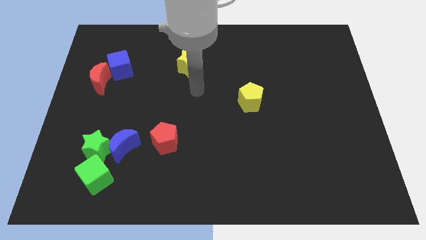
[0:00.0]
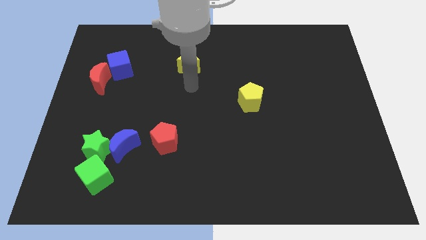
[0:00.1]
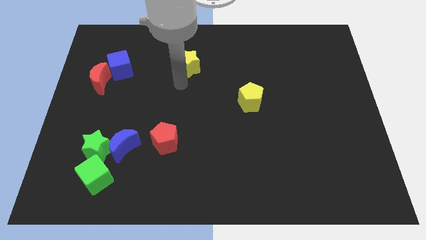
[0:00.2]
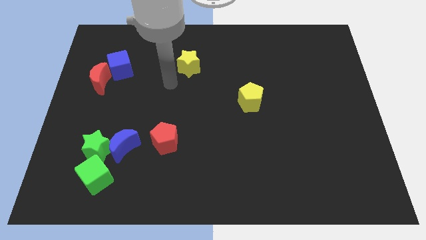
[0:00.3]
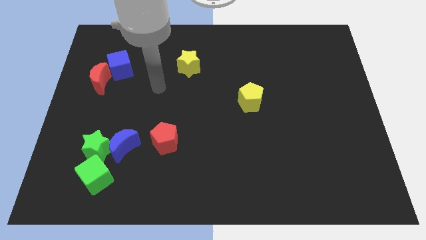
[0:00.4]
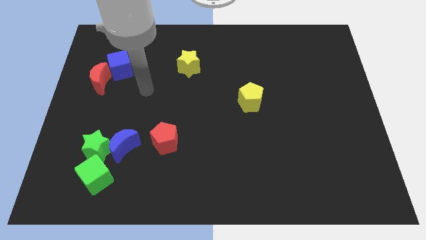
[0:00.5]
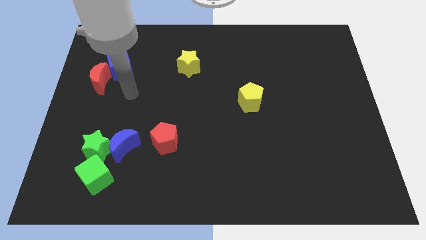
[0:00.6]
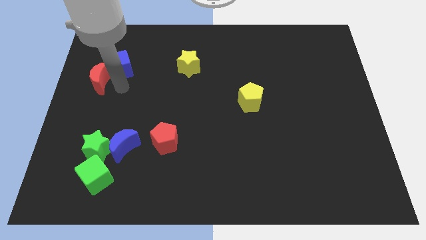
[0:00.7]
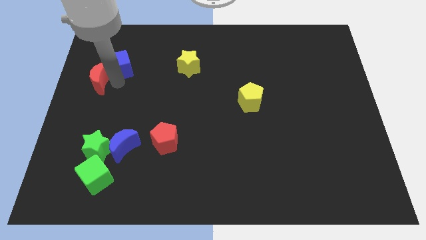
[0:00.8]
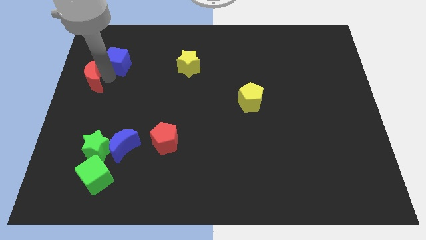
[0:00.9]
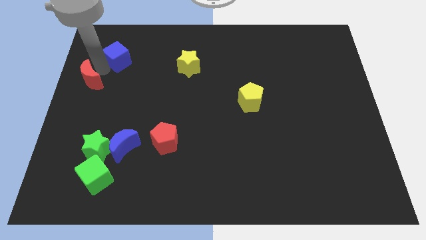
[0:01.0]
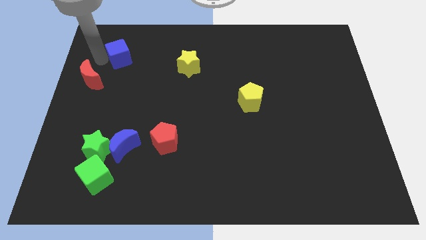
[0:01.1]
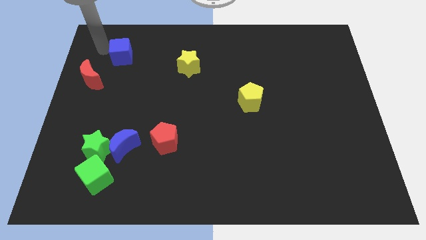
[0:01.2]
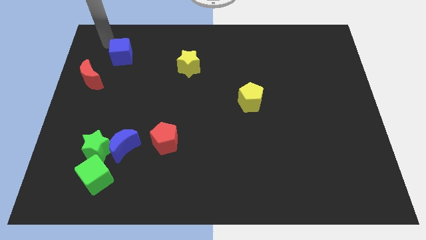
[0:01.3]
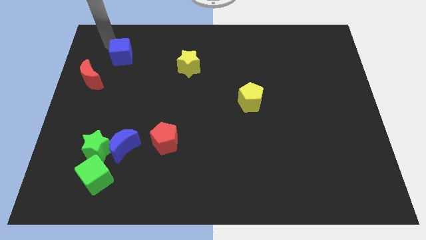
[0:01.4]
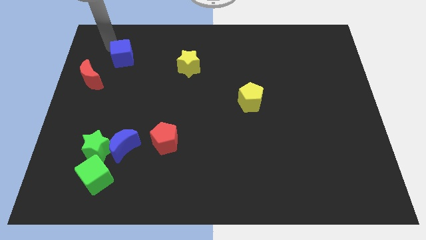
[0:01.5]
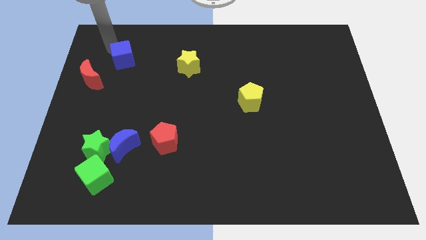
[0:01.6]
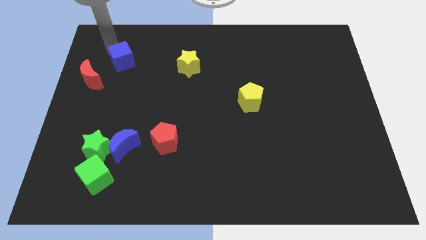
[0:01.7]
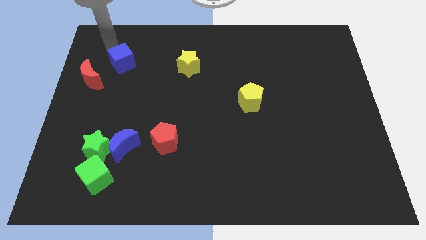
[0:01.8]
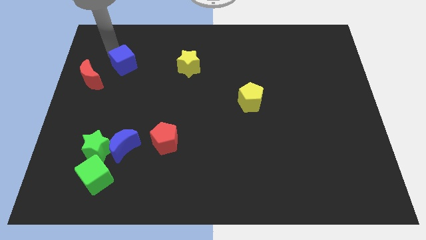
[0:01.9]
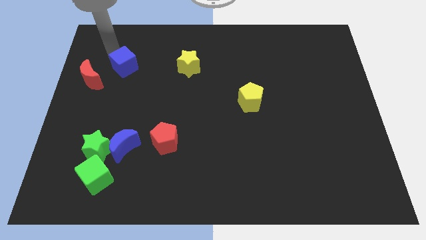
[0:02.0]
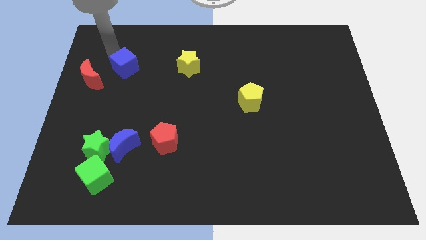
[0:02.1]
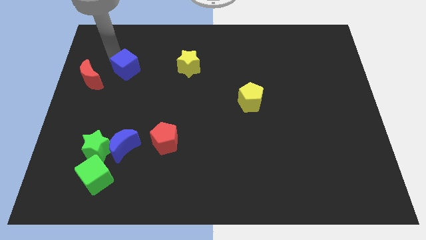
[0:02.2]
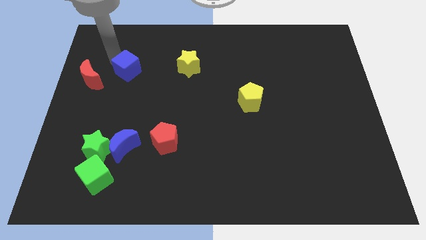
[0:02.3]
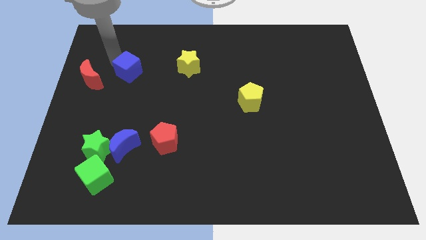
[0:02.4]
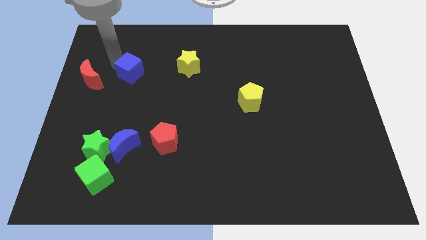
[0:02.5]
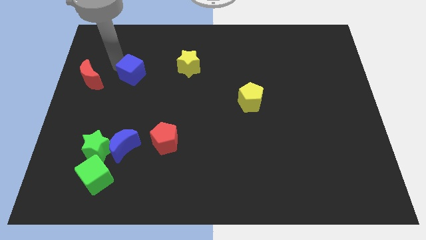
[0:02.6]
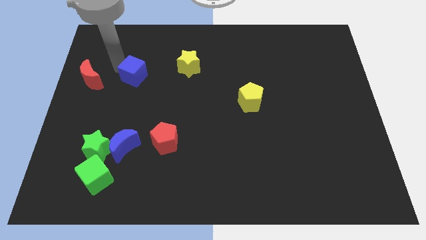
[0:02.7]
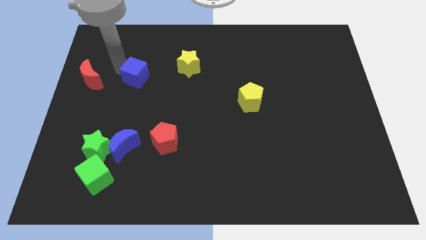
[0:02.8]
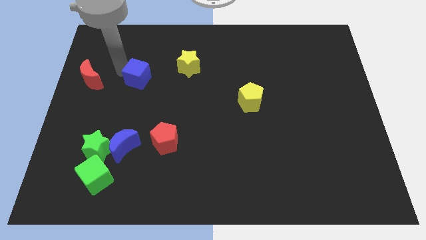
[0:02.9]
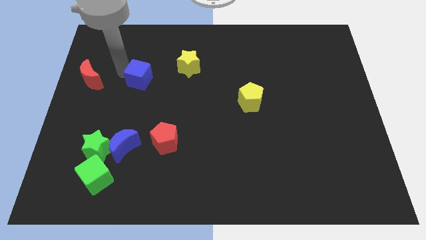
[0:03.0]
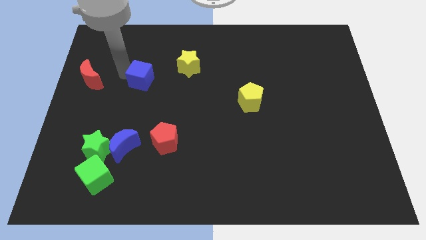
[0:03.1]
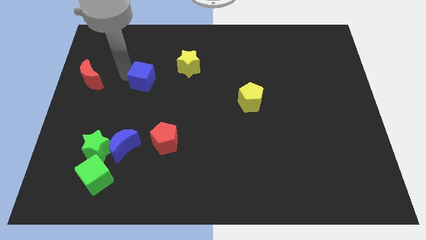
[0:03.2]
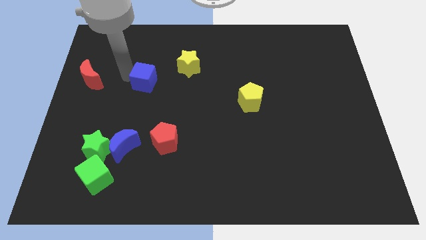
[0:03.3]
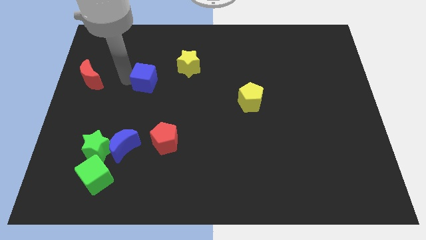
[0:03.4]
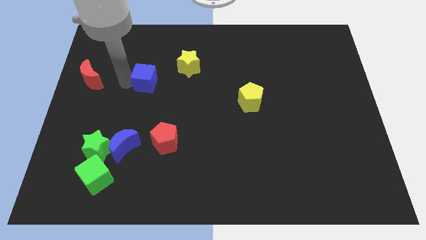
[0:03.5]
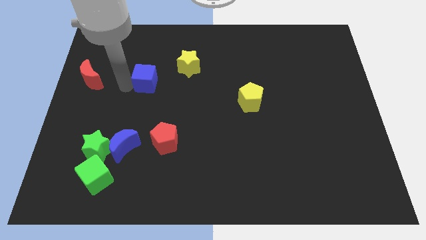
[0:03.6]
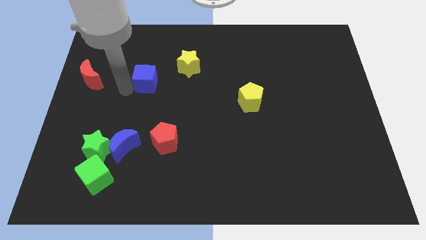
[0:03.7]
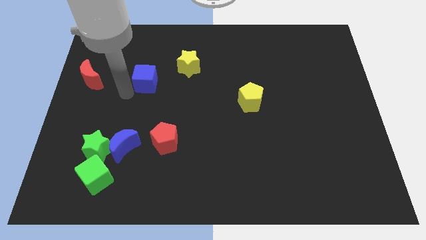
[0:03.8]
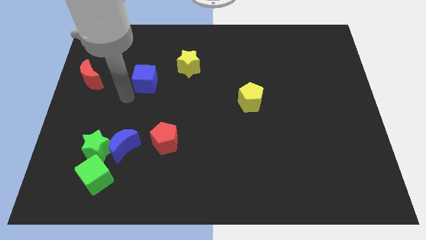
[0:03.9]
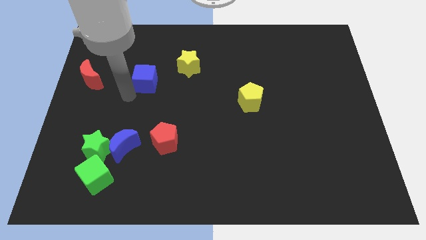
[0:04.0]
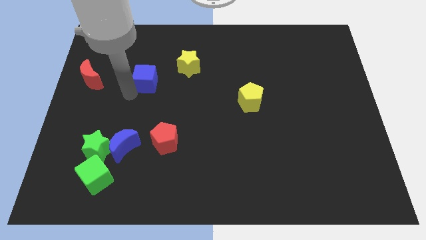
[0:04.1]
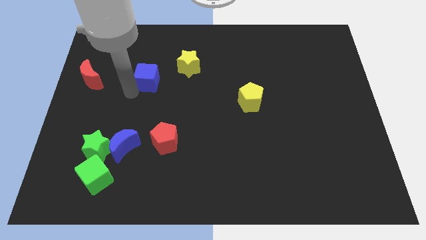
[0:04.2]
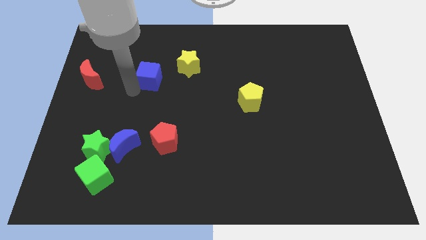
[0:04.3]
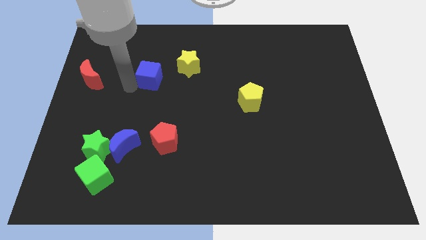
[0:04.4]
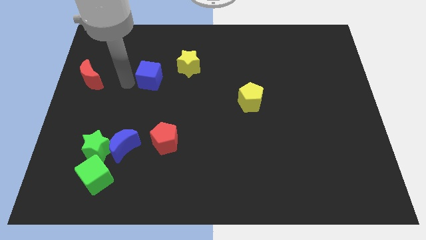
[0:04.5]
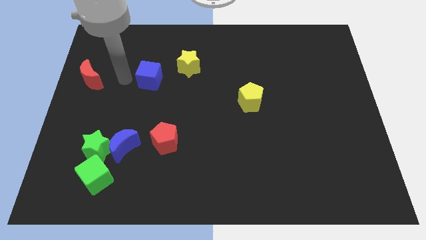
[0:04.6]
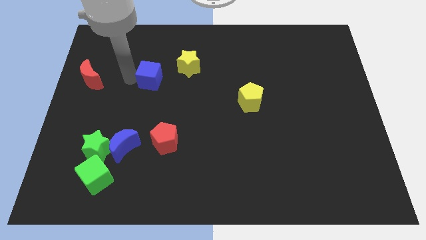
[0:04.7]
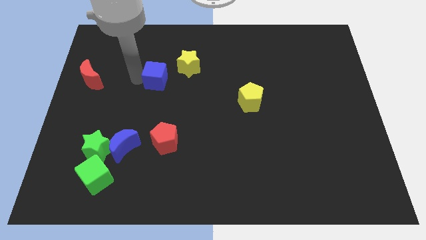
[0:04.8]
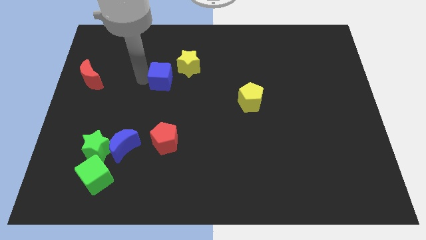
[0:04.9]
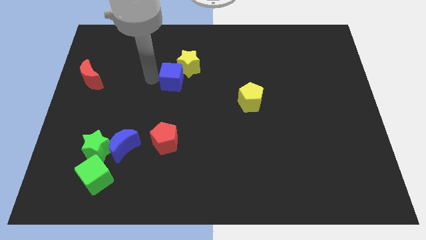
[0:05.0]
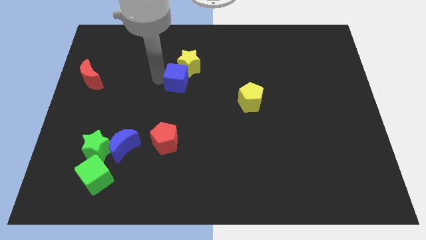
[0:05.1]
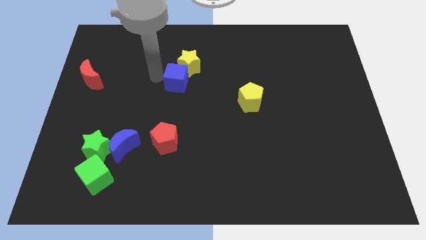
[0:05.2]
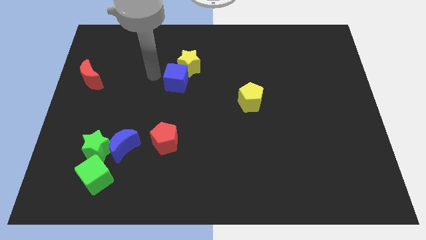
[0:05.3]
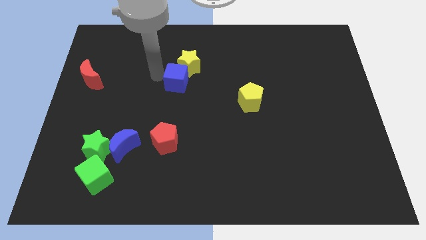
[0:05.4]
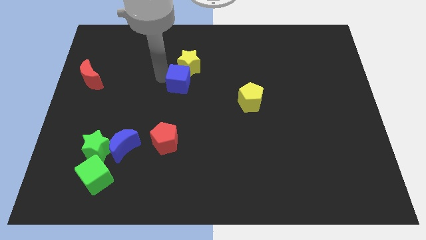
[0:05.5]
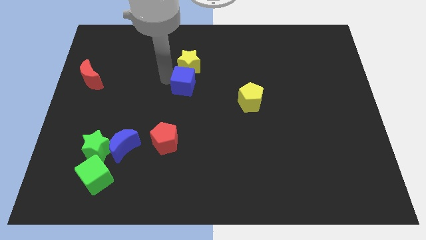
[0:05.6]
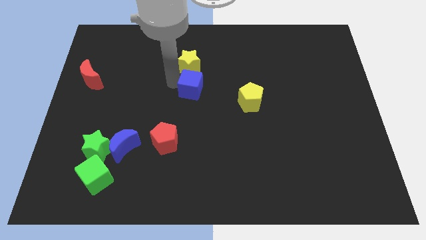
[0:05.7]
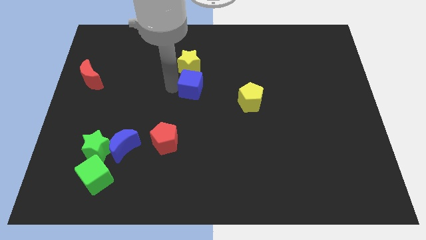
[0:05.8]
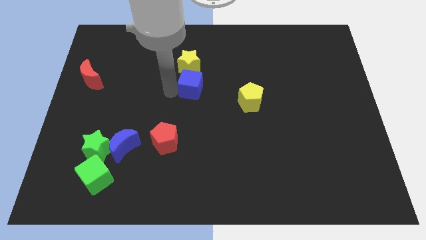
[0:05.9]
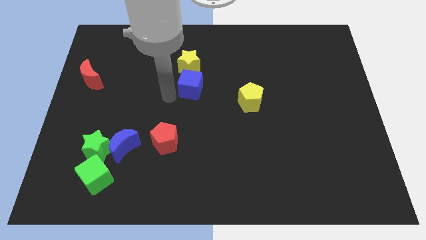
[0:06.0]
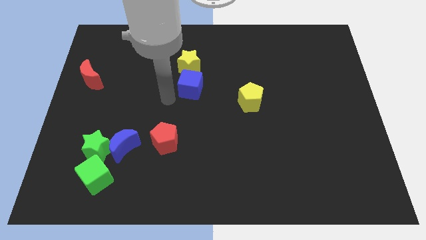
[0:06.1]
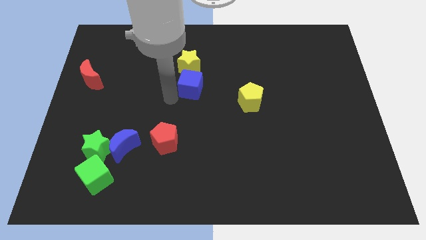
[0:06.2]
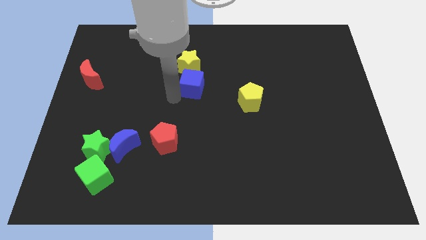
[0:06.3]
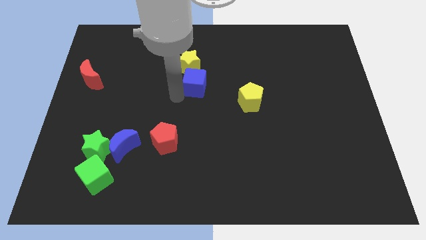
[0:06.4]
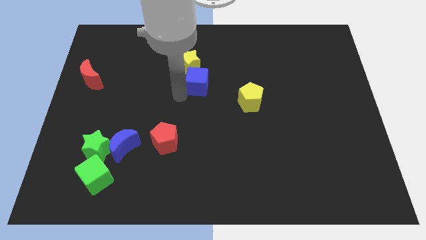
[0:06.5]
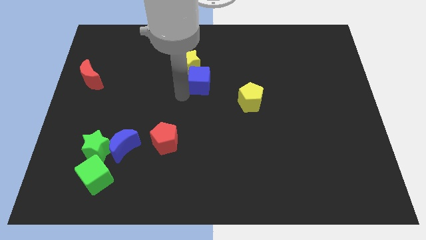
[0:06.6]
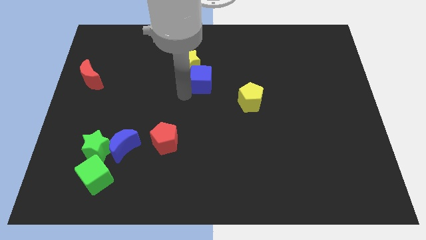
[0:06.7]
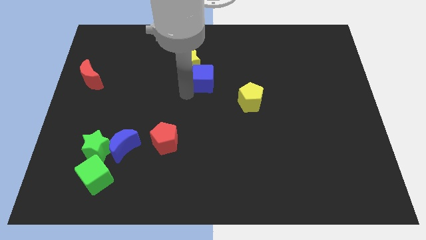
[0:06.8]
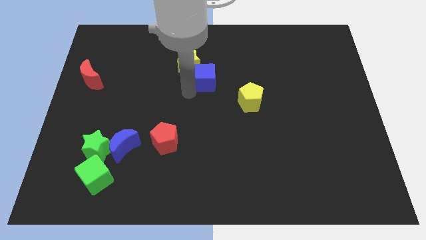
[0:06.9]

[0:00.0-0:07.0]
slide the blue cube just right of the yellow star
